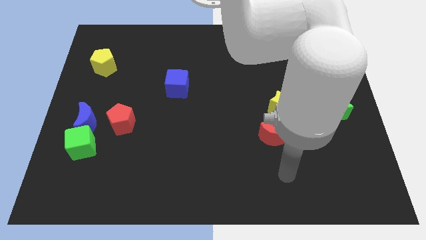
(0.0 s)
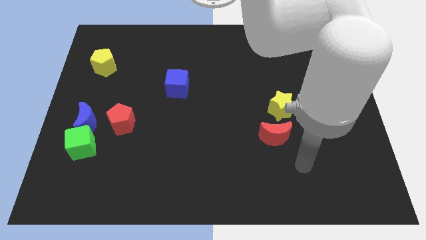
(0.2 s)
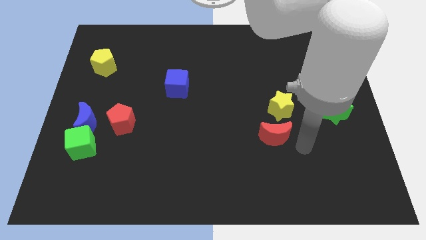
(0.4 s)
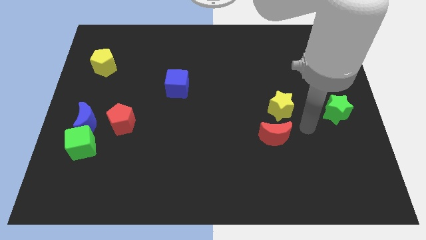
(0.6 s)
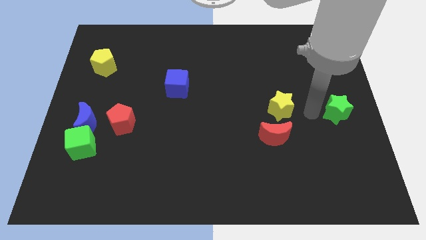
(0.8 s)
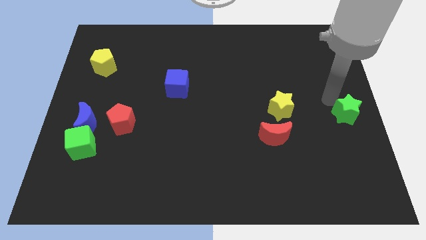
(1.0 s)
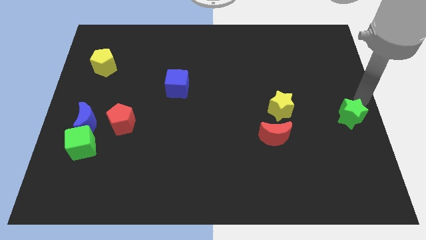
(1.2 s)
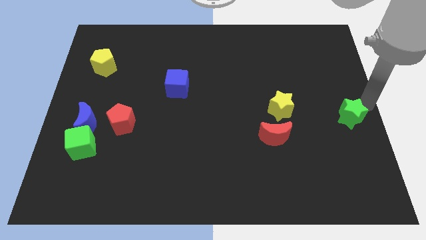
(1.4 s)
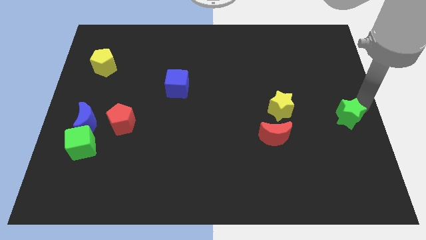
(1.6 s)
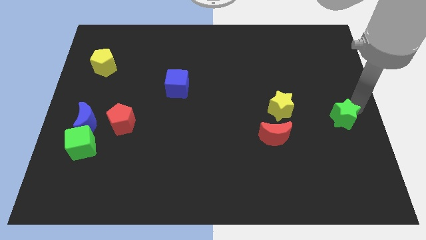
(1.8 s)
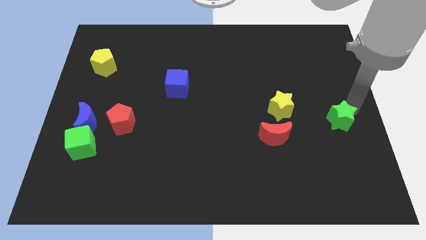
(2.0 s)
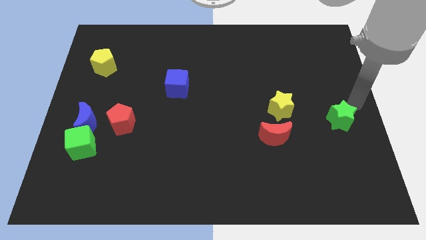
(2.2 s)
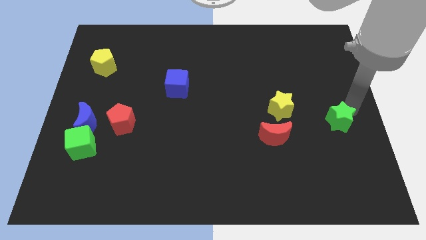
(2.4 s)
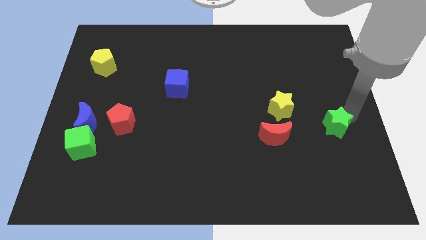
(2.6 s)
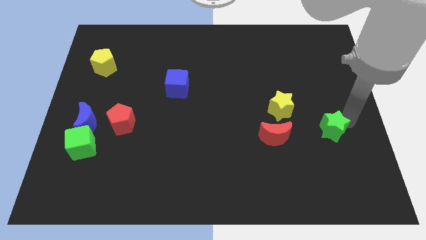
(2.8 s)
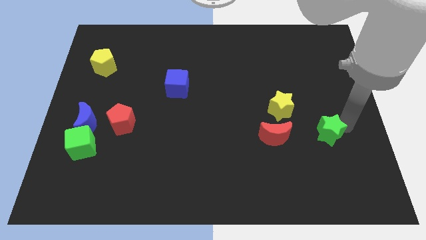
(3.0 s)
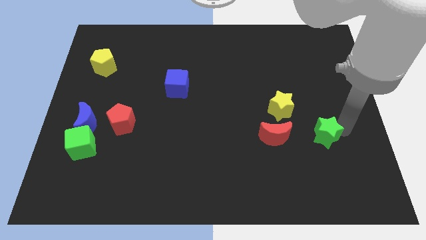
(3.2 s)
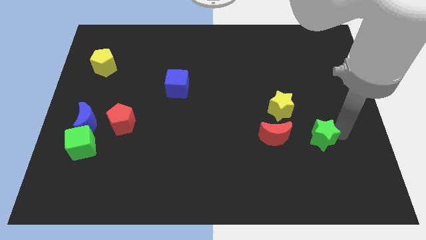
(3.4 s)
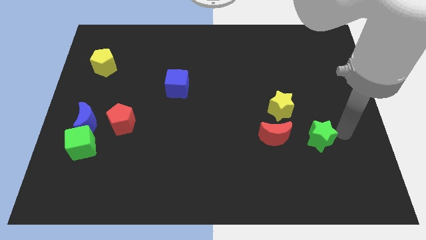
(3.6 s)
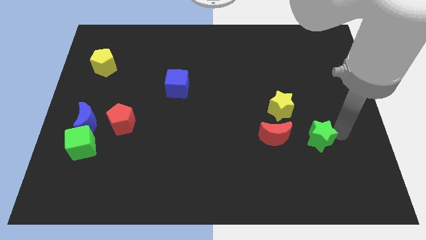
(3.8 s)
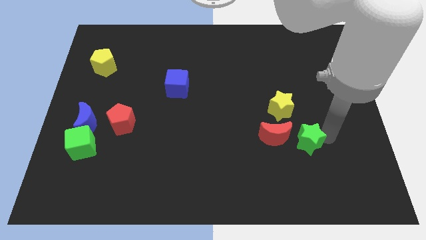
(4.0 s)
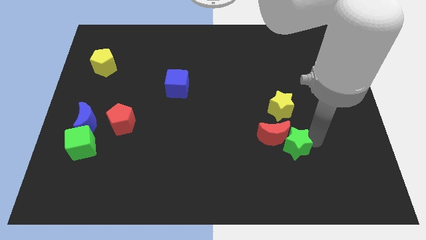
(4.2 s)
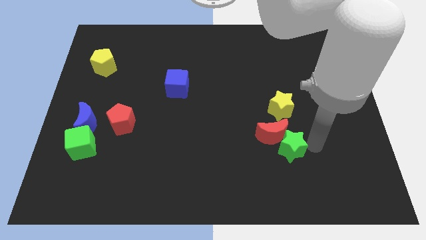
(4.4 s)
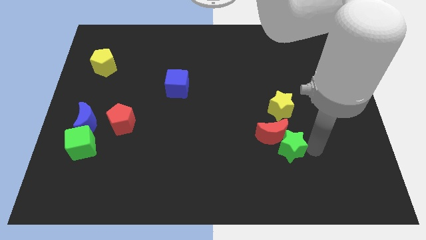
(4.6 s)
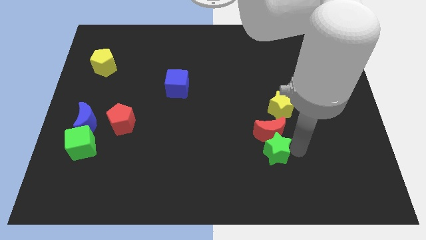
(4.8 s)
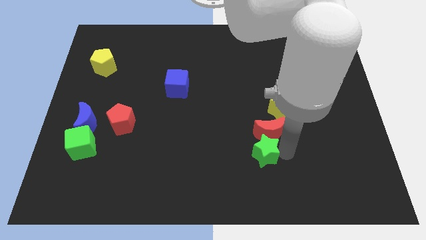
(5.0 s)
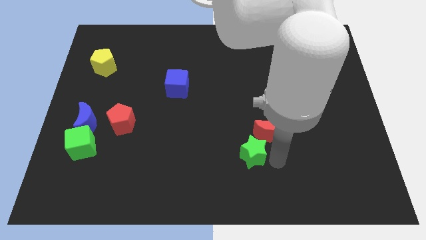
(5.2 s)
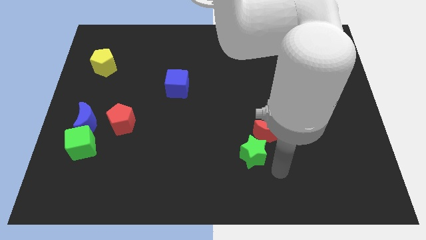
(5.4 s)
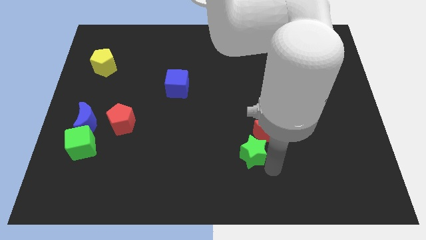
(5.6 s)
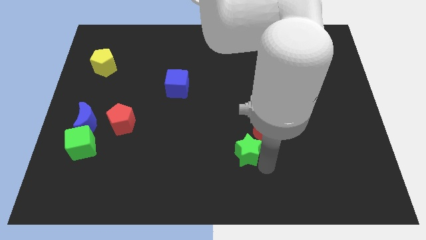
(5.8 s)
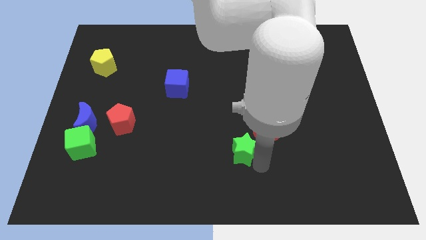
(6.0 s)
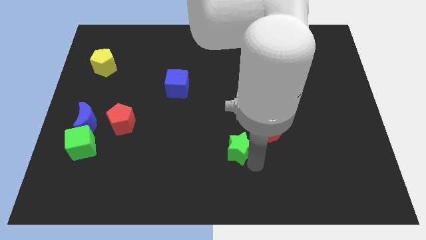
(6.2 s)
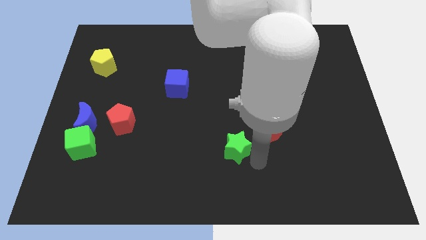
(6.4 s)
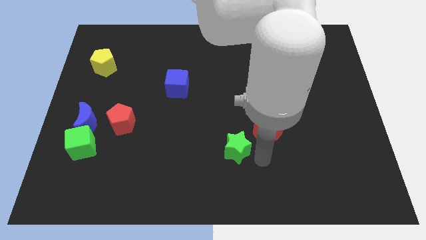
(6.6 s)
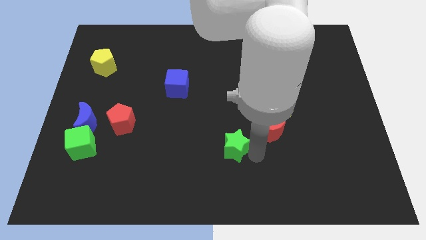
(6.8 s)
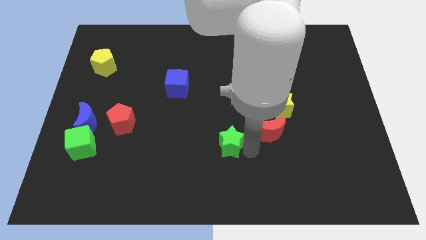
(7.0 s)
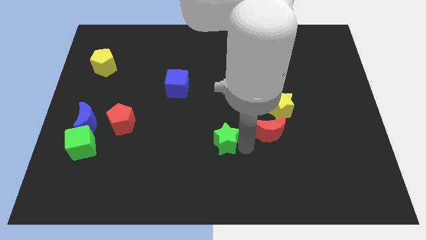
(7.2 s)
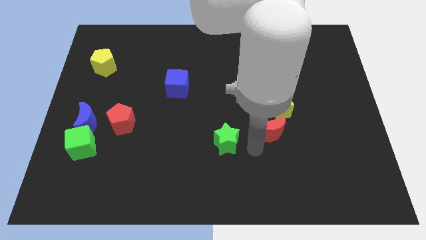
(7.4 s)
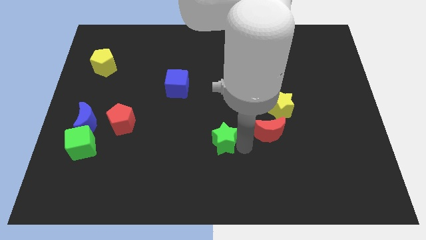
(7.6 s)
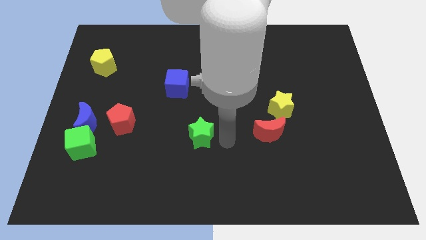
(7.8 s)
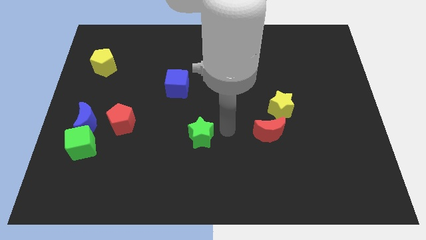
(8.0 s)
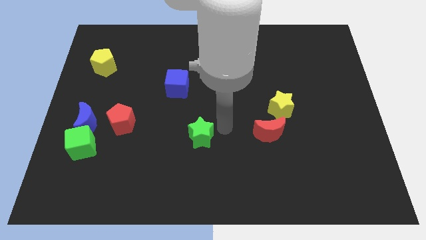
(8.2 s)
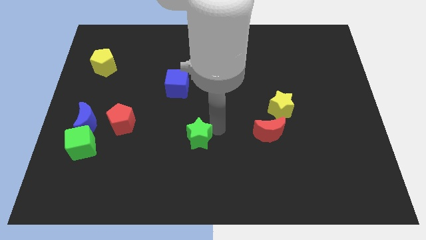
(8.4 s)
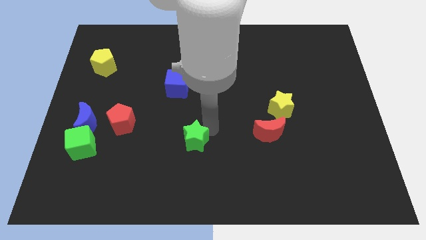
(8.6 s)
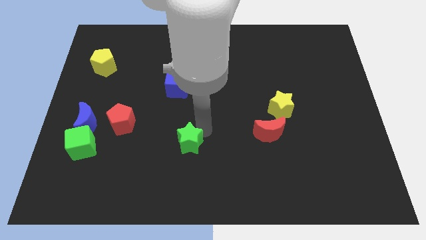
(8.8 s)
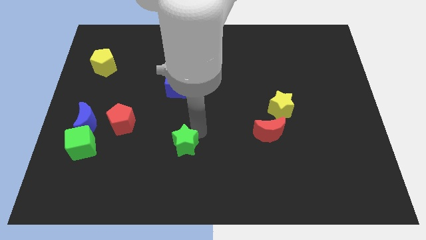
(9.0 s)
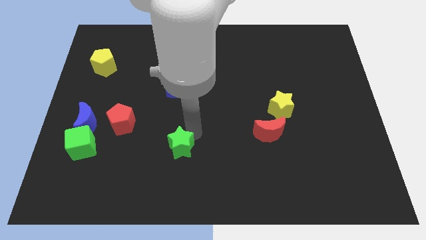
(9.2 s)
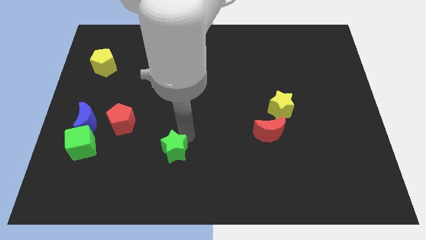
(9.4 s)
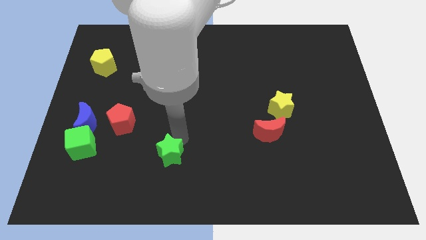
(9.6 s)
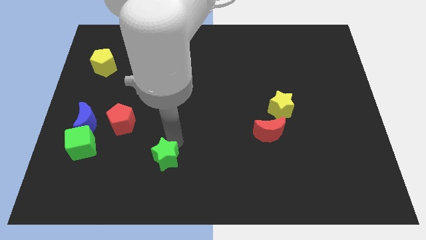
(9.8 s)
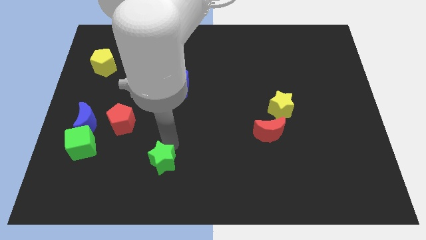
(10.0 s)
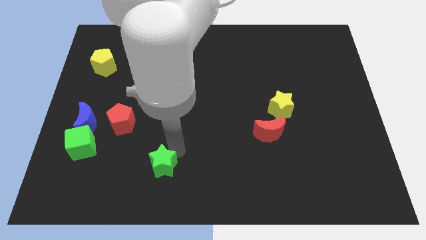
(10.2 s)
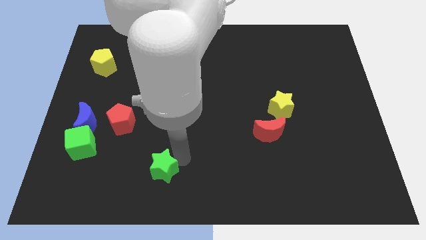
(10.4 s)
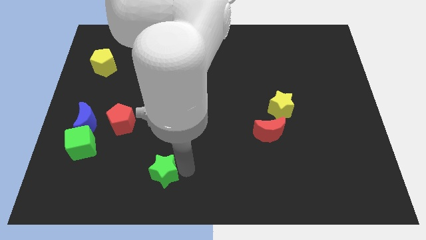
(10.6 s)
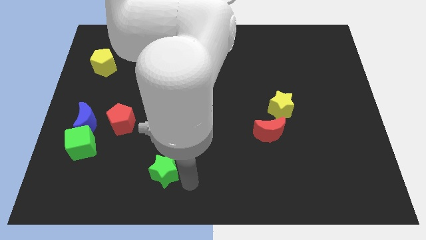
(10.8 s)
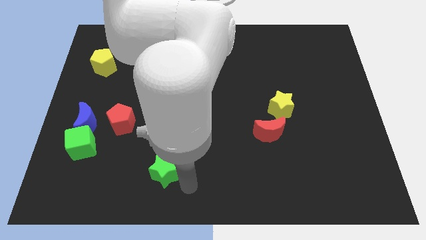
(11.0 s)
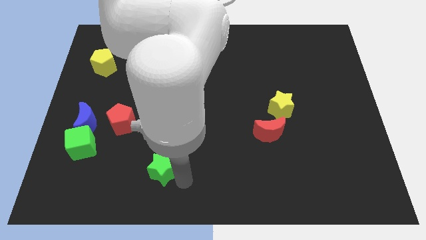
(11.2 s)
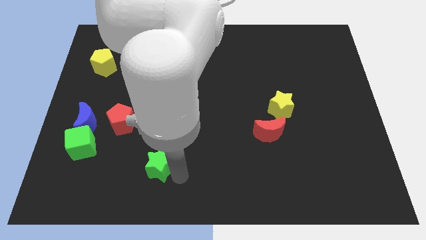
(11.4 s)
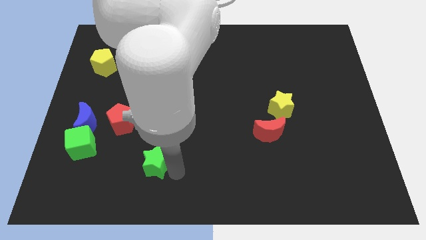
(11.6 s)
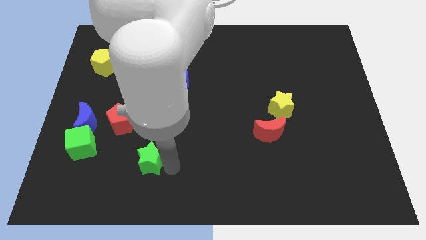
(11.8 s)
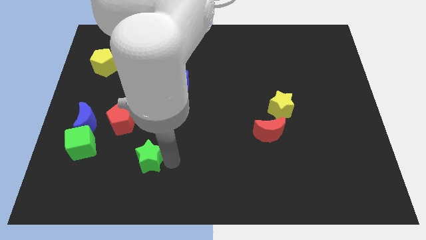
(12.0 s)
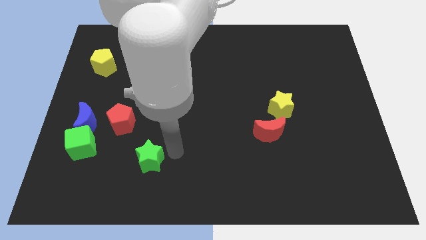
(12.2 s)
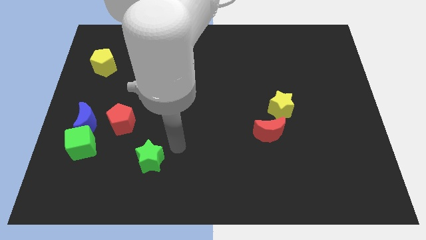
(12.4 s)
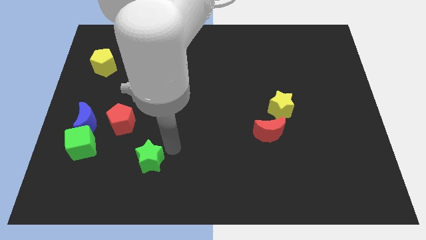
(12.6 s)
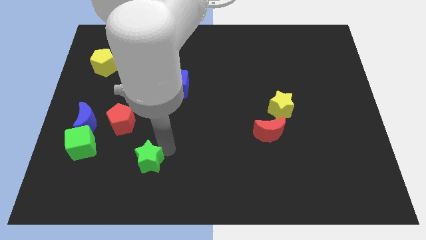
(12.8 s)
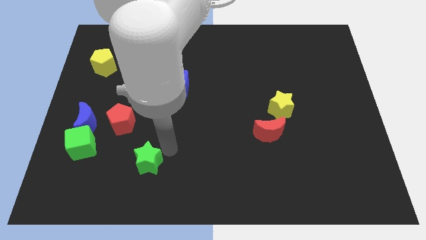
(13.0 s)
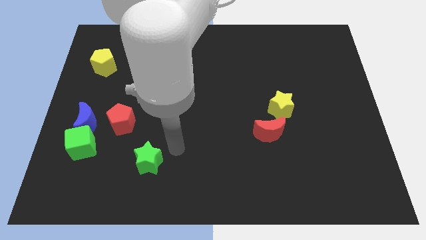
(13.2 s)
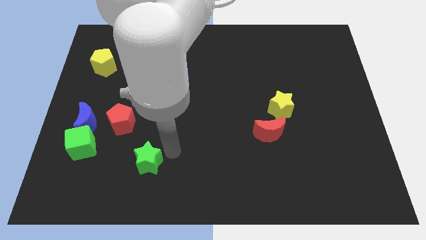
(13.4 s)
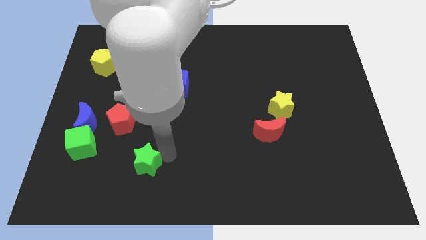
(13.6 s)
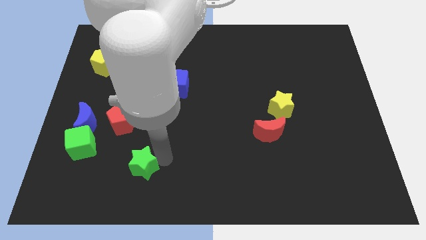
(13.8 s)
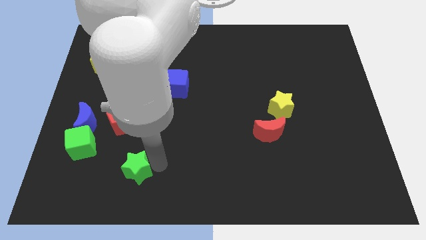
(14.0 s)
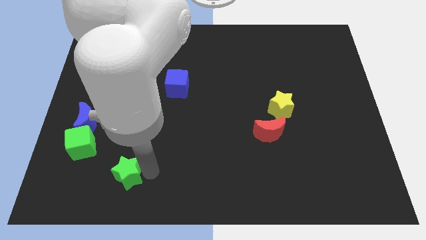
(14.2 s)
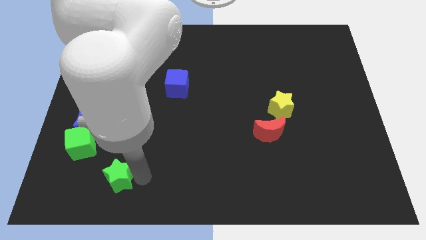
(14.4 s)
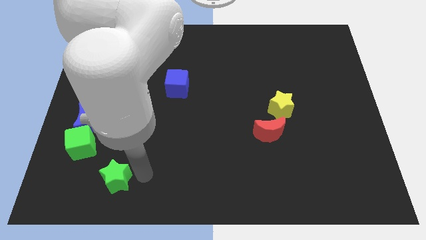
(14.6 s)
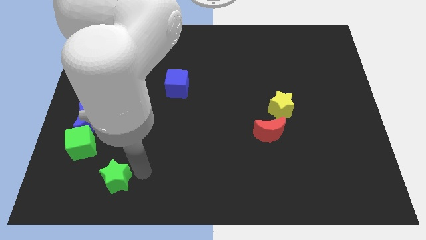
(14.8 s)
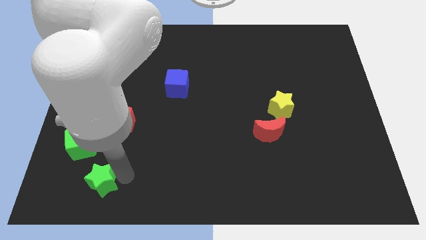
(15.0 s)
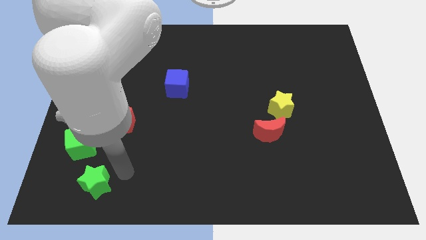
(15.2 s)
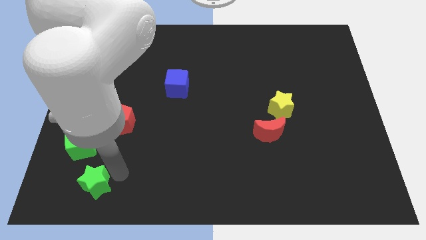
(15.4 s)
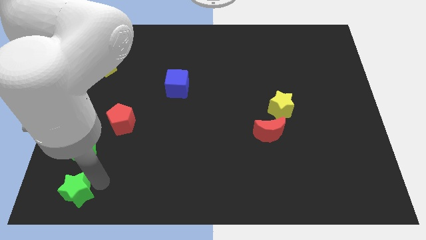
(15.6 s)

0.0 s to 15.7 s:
put the green star to the bottom left corner
